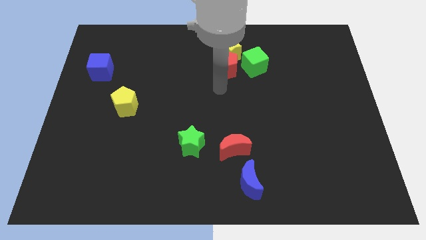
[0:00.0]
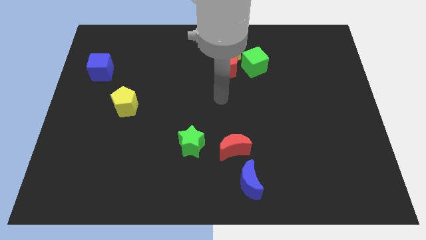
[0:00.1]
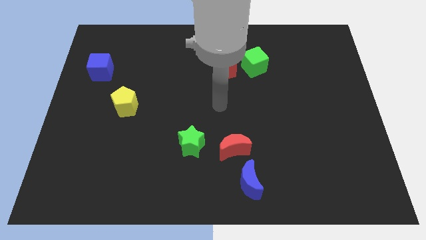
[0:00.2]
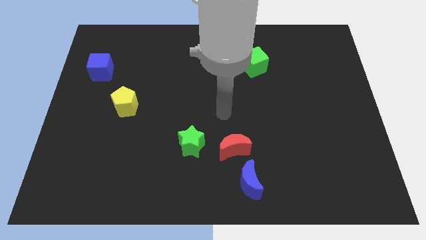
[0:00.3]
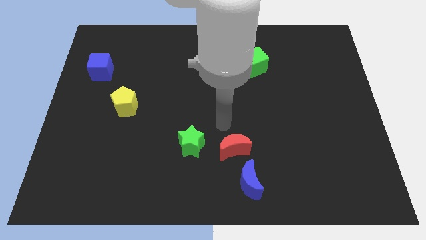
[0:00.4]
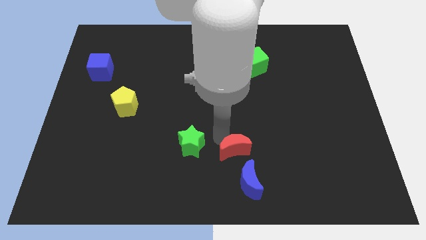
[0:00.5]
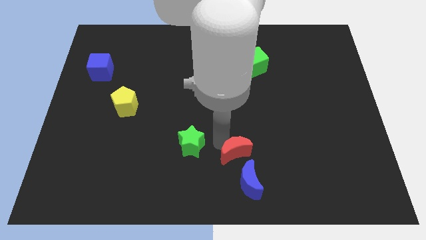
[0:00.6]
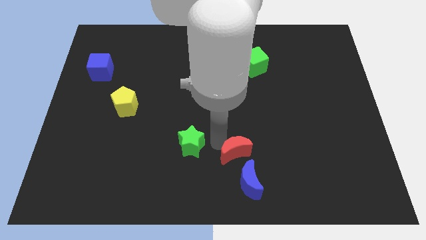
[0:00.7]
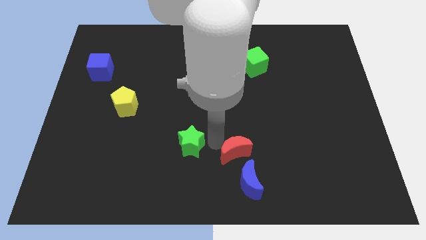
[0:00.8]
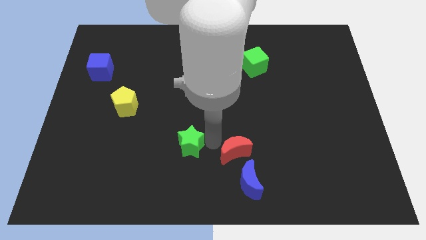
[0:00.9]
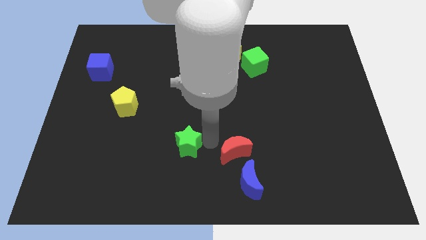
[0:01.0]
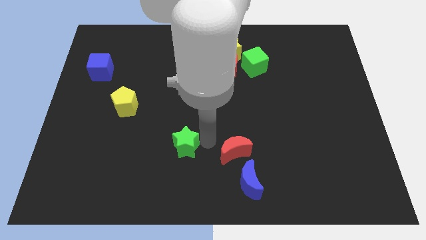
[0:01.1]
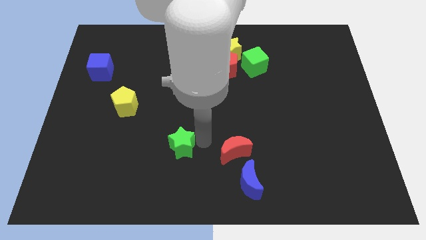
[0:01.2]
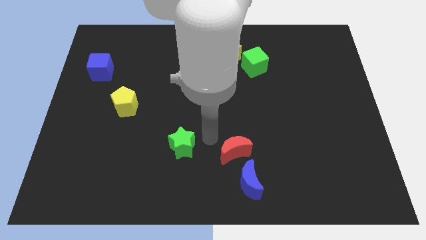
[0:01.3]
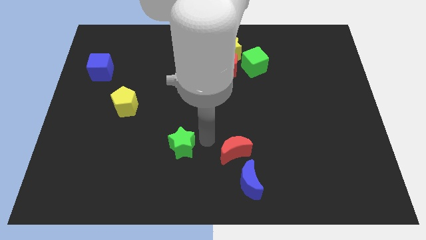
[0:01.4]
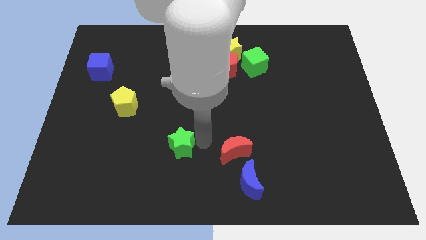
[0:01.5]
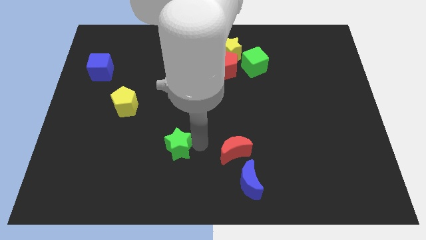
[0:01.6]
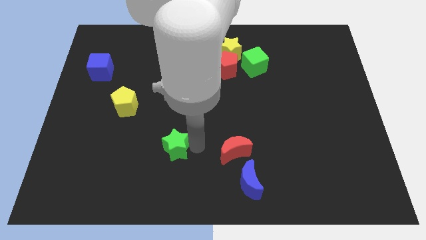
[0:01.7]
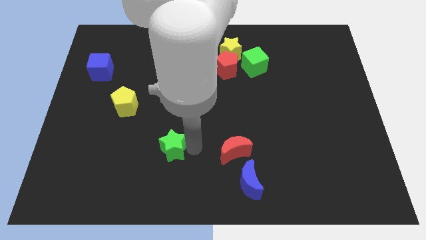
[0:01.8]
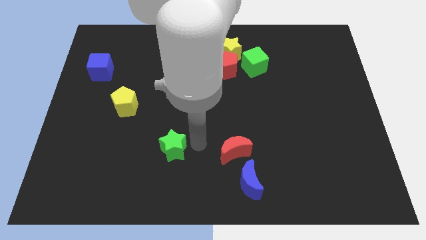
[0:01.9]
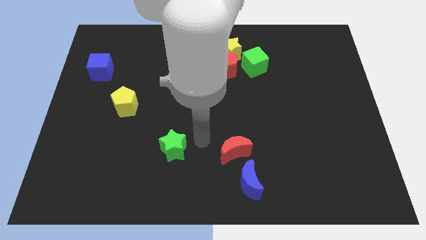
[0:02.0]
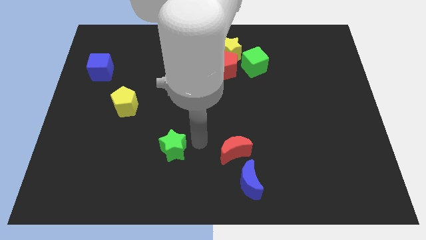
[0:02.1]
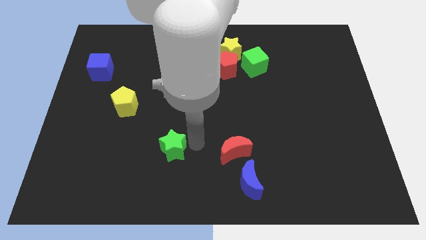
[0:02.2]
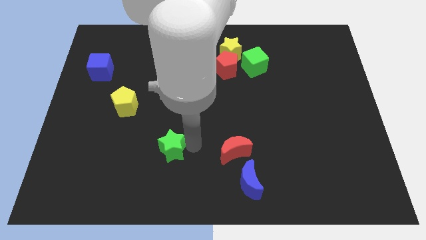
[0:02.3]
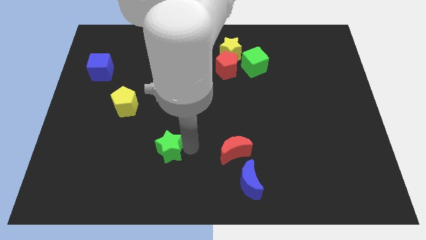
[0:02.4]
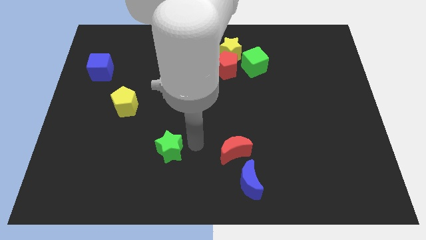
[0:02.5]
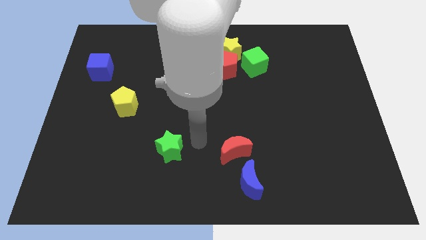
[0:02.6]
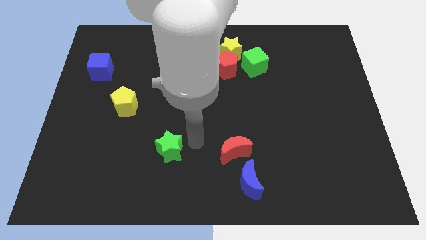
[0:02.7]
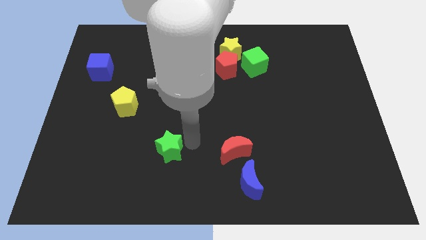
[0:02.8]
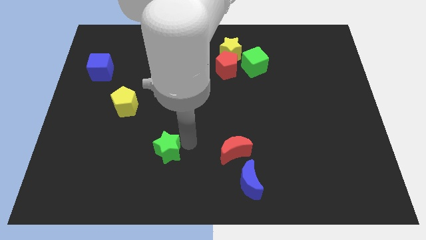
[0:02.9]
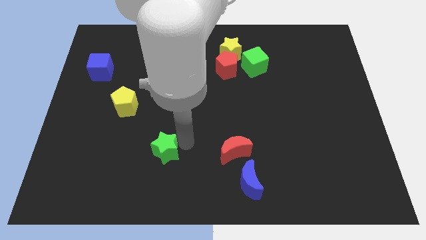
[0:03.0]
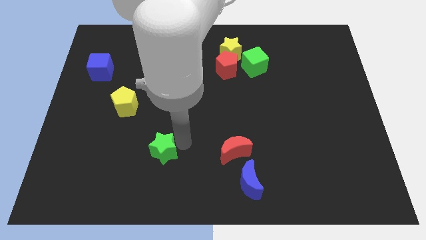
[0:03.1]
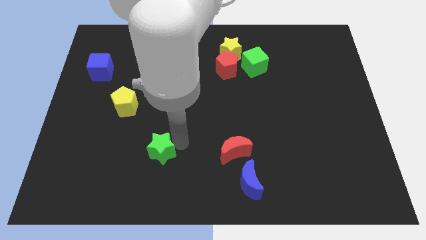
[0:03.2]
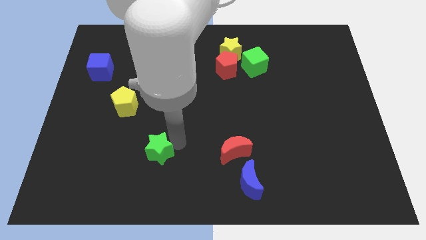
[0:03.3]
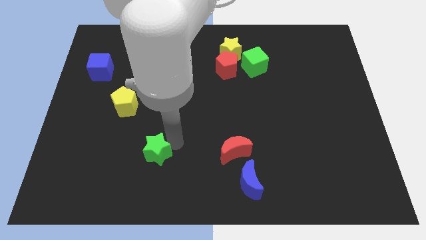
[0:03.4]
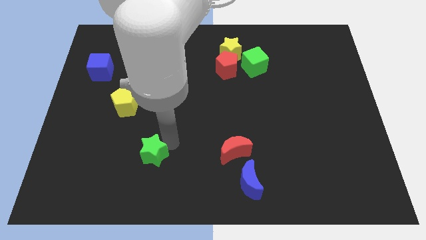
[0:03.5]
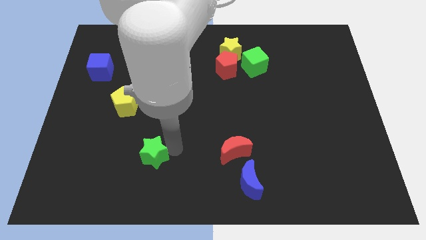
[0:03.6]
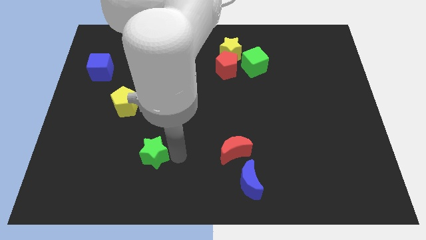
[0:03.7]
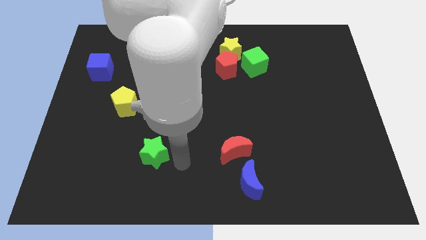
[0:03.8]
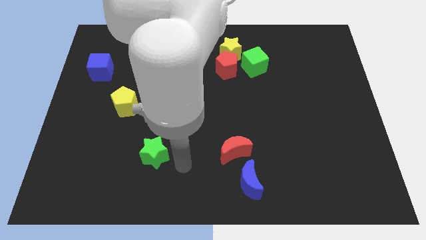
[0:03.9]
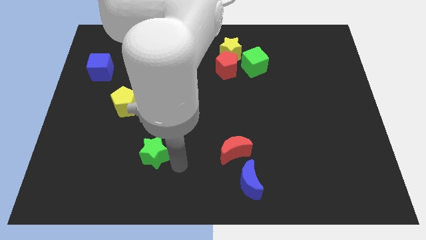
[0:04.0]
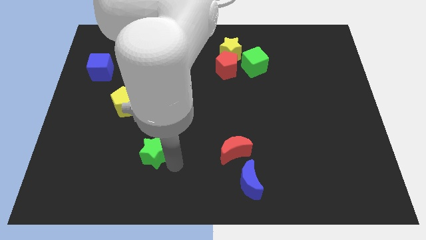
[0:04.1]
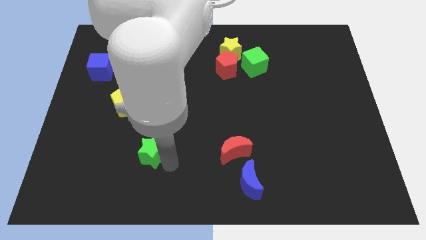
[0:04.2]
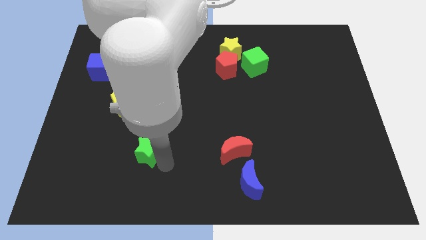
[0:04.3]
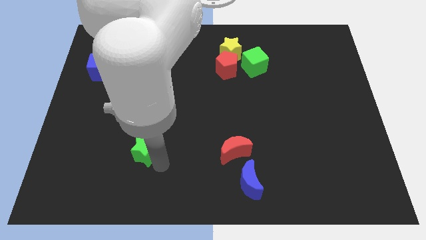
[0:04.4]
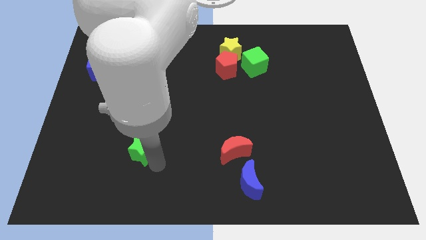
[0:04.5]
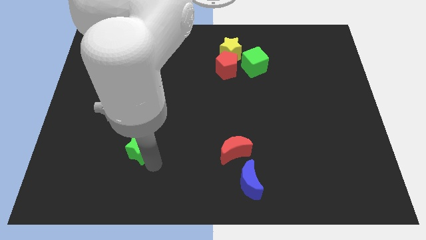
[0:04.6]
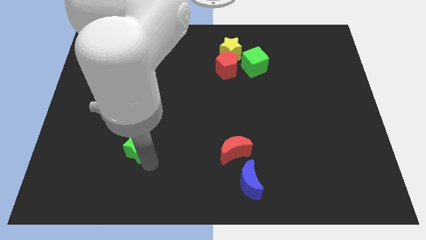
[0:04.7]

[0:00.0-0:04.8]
put the green star to the bottom side of the yellow pentagon

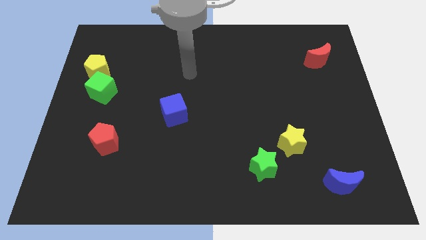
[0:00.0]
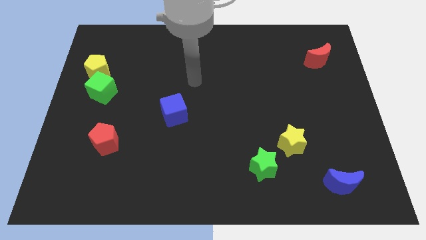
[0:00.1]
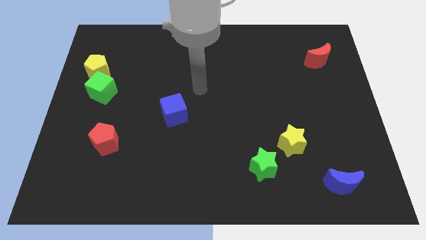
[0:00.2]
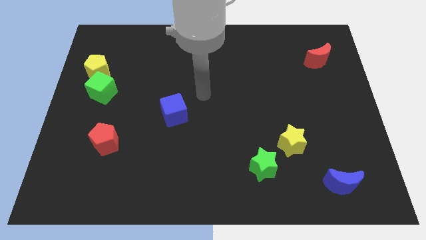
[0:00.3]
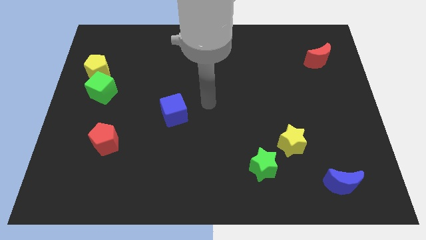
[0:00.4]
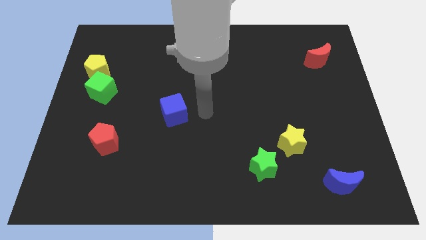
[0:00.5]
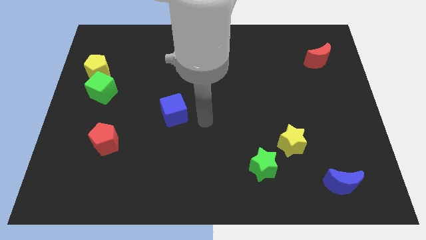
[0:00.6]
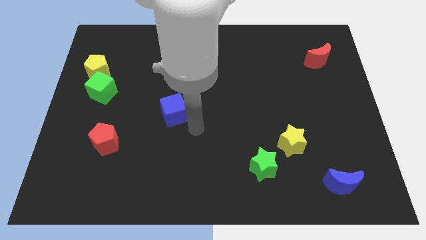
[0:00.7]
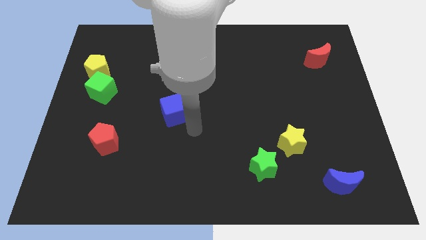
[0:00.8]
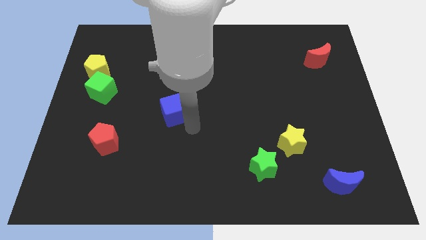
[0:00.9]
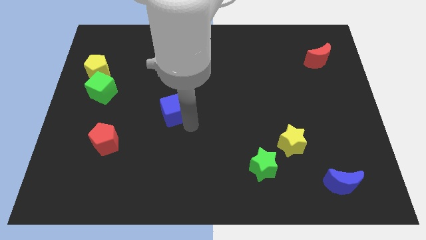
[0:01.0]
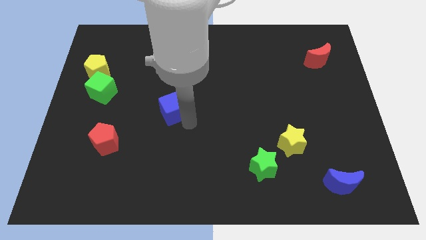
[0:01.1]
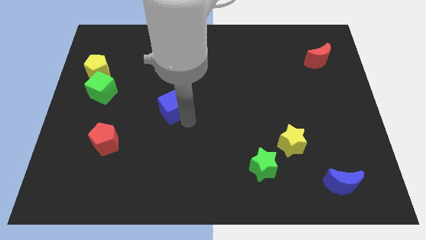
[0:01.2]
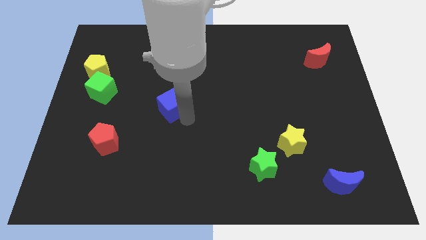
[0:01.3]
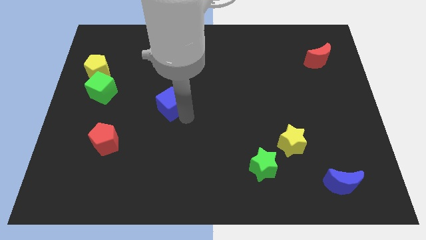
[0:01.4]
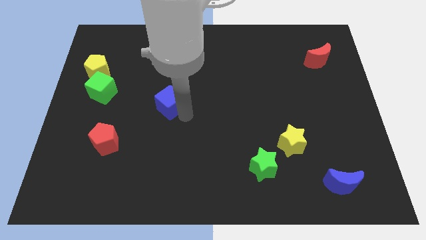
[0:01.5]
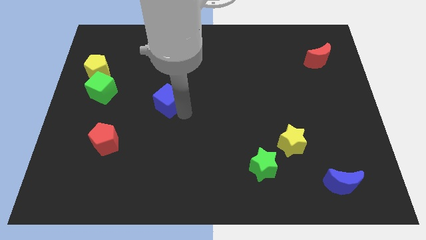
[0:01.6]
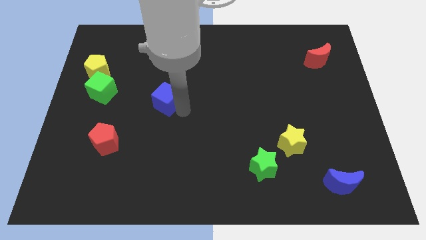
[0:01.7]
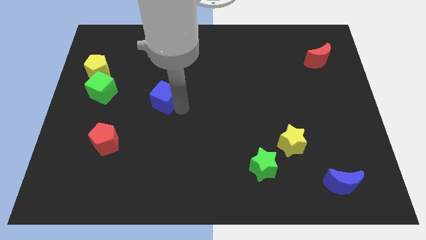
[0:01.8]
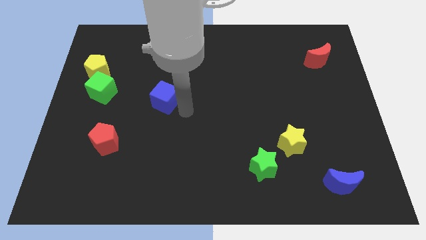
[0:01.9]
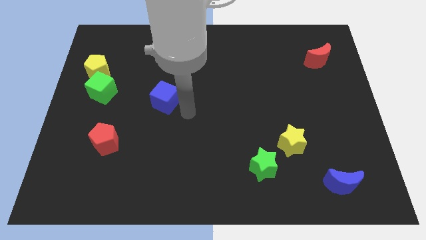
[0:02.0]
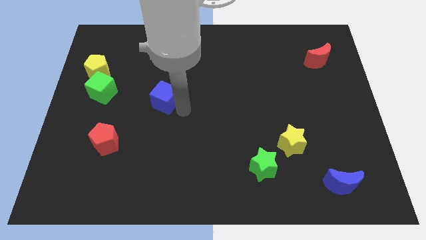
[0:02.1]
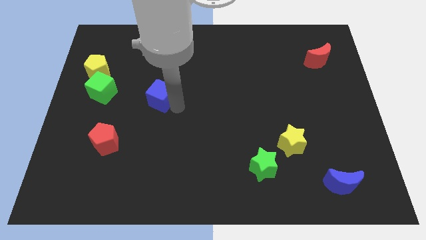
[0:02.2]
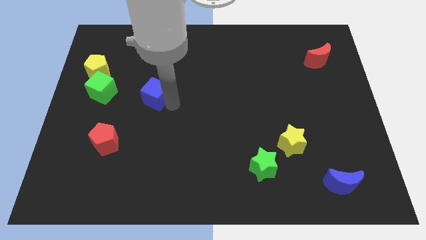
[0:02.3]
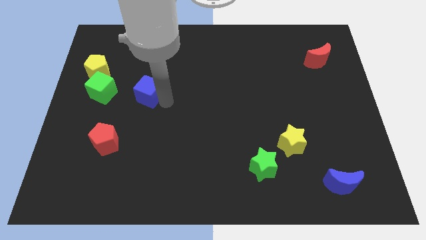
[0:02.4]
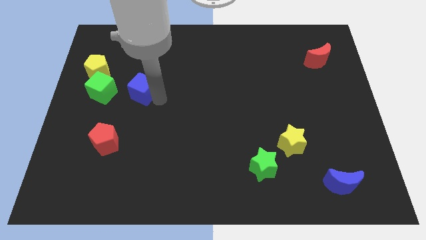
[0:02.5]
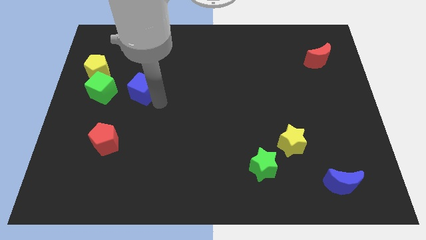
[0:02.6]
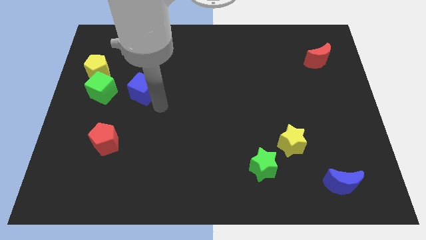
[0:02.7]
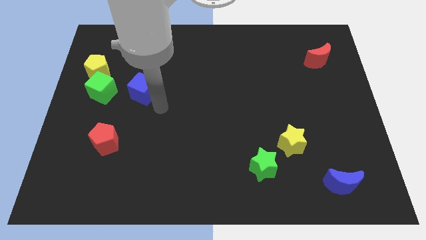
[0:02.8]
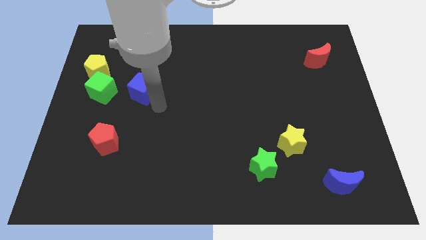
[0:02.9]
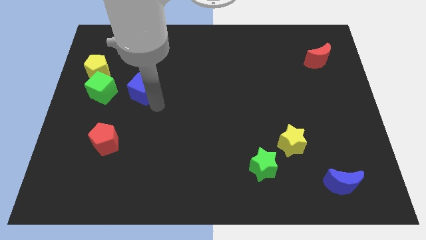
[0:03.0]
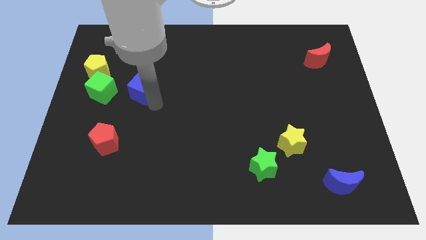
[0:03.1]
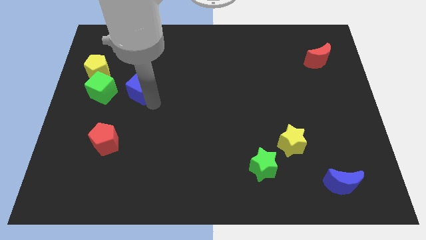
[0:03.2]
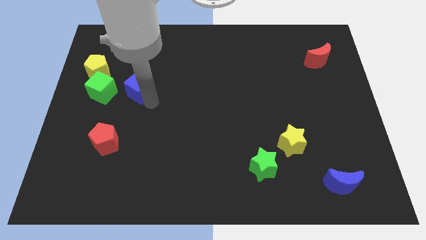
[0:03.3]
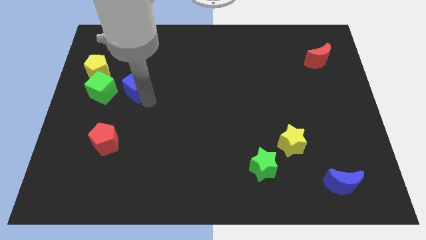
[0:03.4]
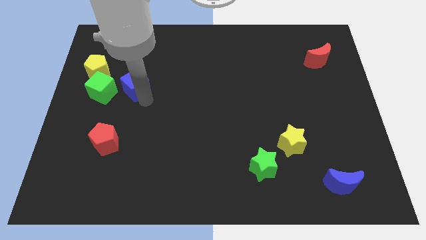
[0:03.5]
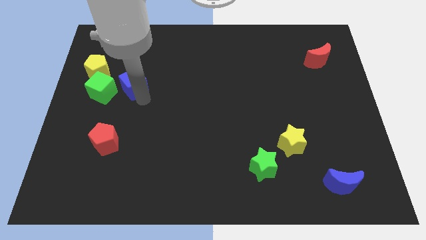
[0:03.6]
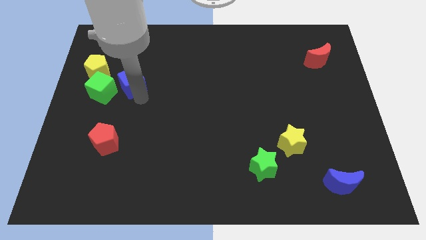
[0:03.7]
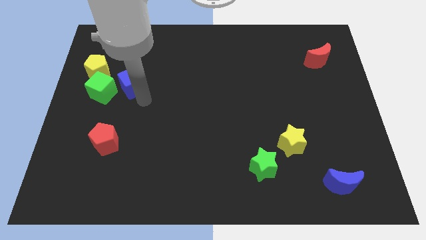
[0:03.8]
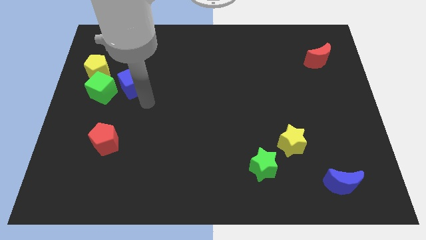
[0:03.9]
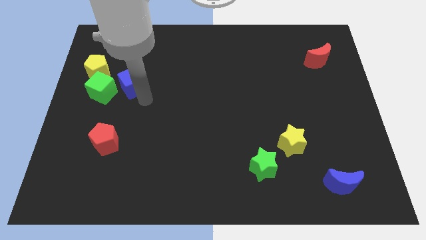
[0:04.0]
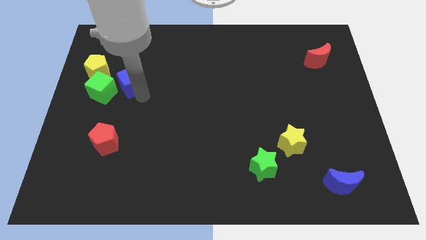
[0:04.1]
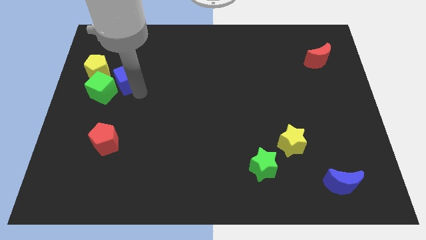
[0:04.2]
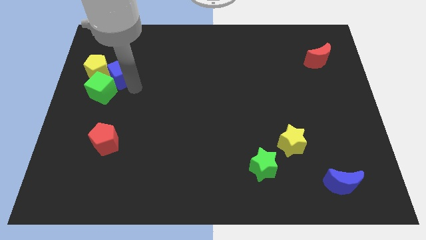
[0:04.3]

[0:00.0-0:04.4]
move the blue cube above the green cube
